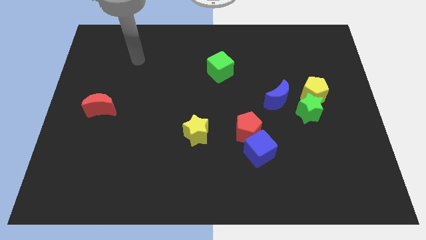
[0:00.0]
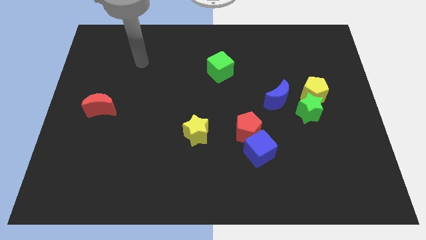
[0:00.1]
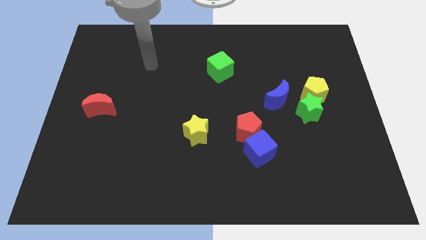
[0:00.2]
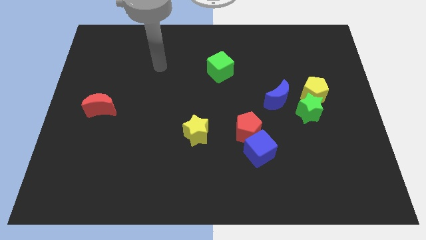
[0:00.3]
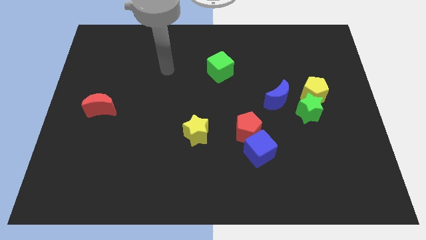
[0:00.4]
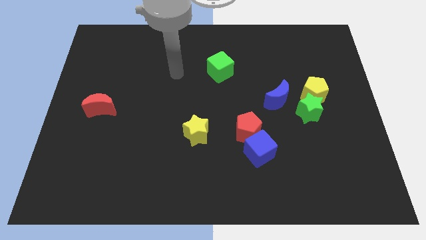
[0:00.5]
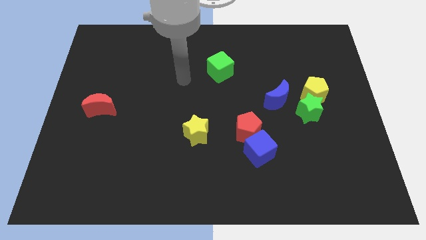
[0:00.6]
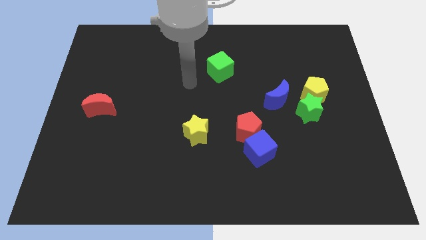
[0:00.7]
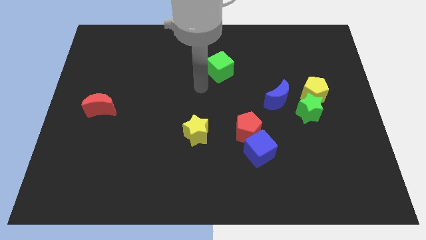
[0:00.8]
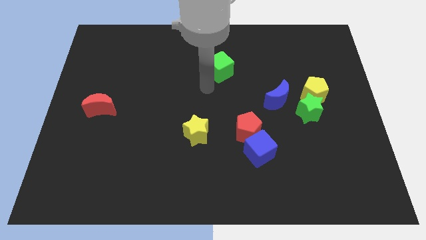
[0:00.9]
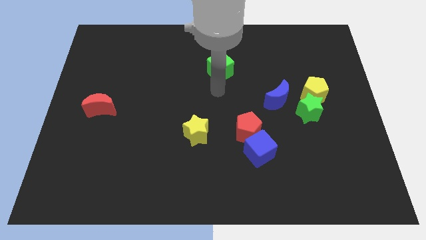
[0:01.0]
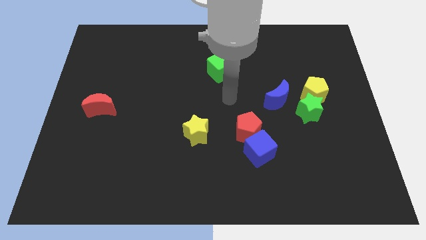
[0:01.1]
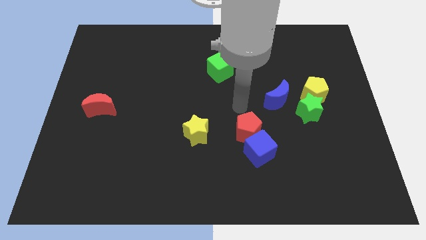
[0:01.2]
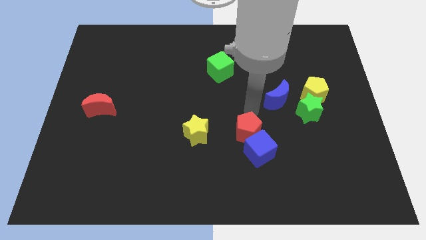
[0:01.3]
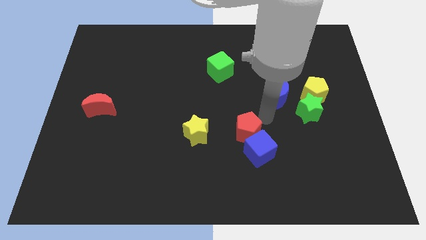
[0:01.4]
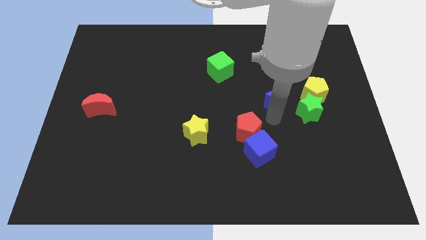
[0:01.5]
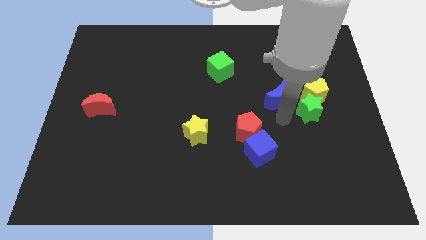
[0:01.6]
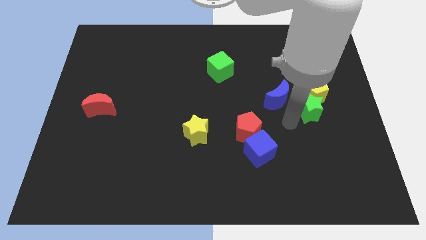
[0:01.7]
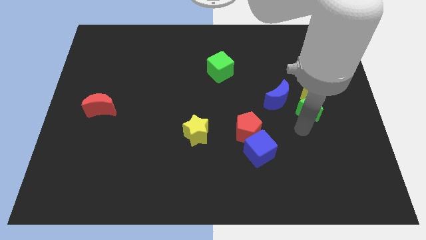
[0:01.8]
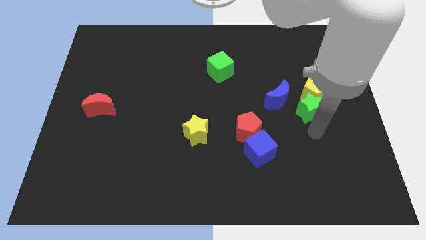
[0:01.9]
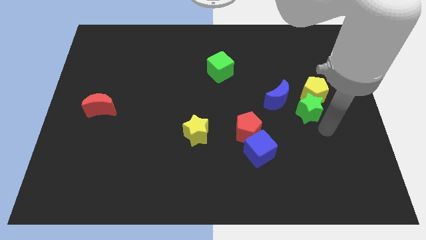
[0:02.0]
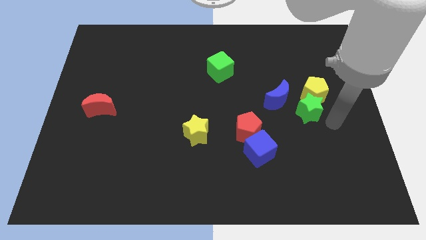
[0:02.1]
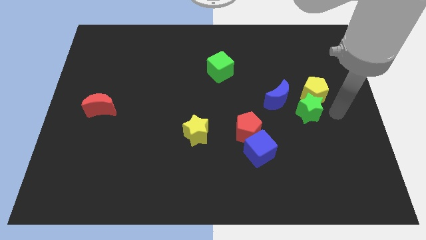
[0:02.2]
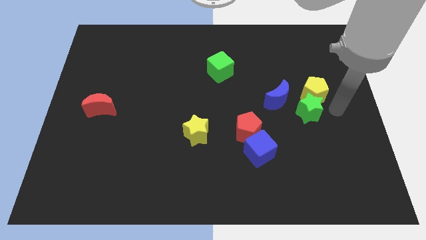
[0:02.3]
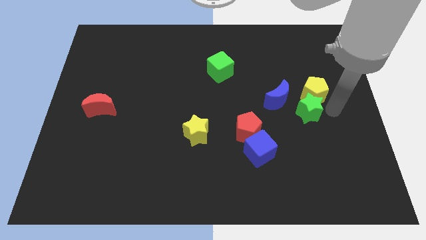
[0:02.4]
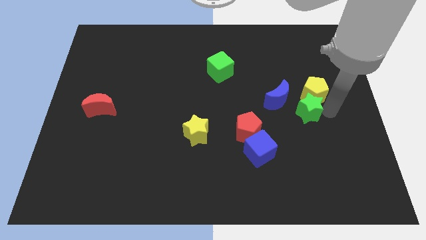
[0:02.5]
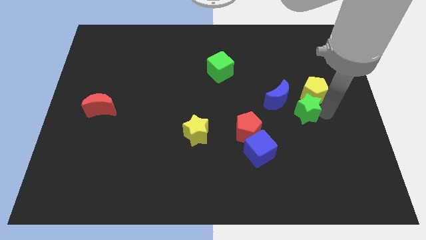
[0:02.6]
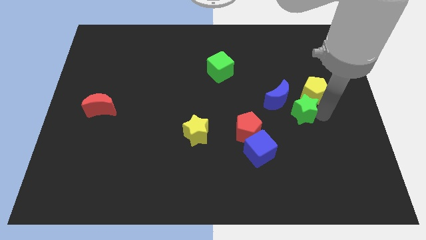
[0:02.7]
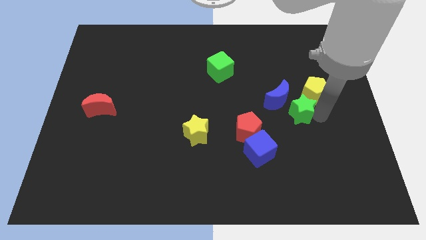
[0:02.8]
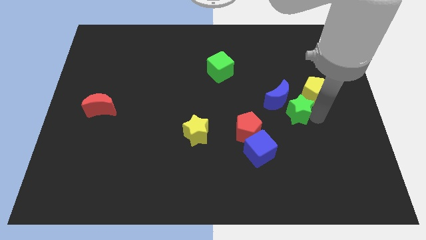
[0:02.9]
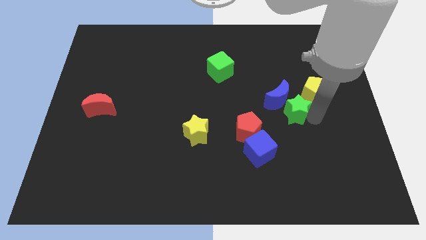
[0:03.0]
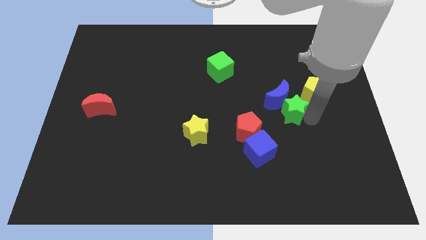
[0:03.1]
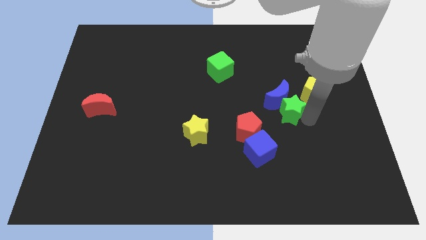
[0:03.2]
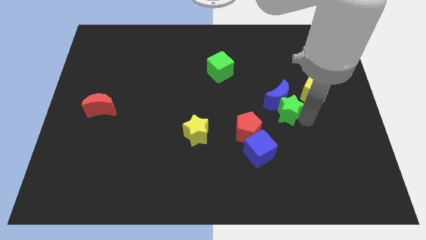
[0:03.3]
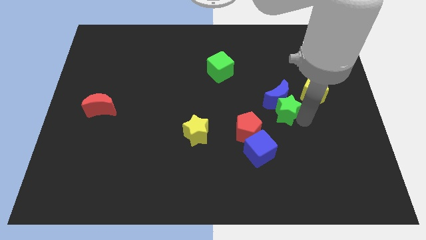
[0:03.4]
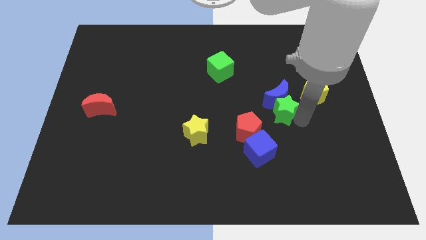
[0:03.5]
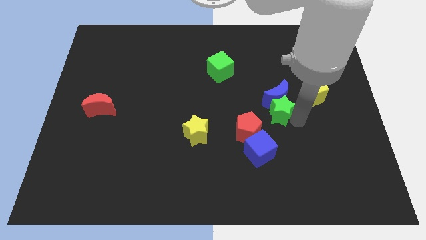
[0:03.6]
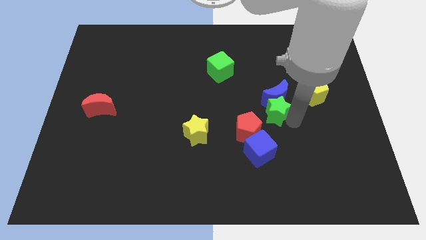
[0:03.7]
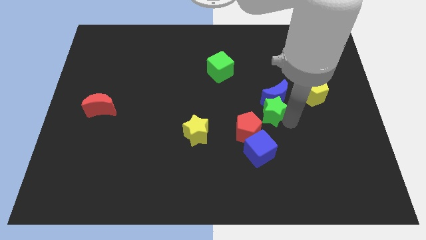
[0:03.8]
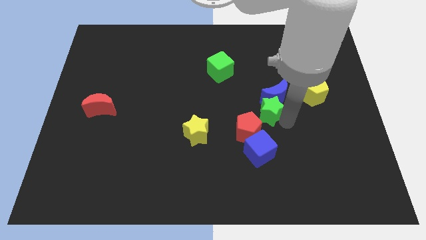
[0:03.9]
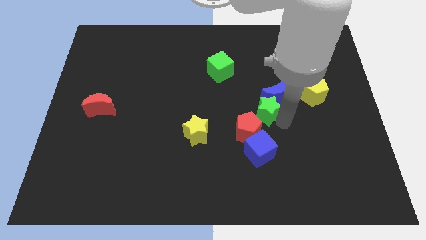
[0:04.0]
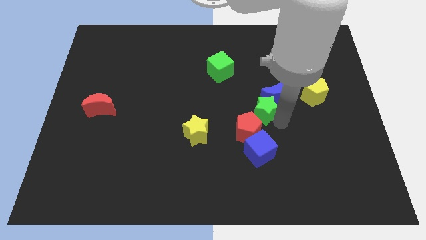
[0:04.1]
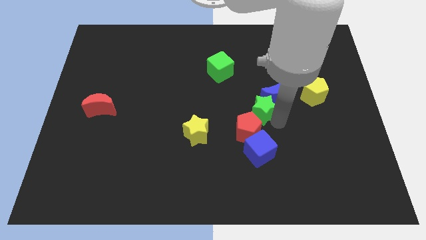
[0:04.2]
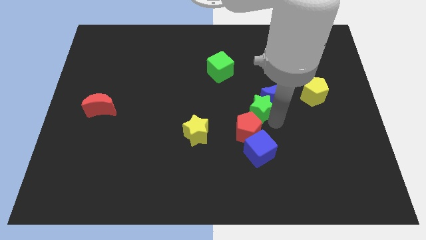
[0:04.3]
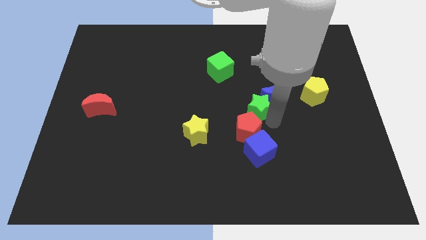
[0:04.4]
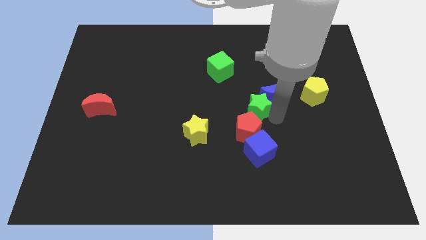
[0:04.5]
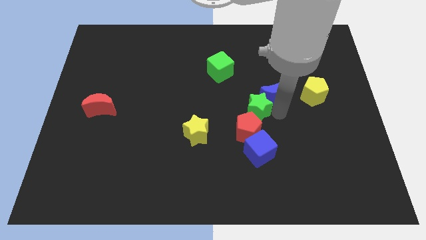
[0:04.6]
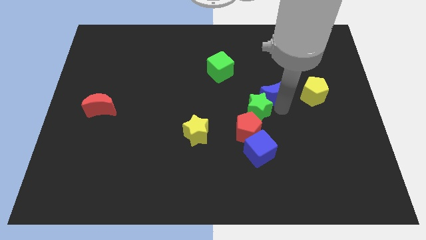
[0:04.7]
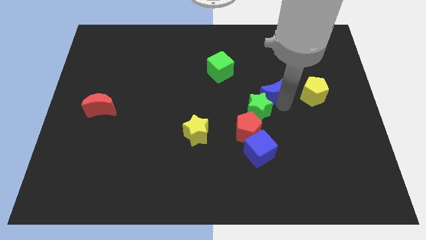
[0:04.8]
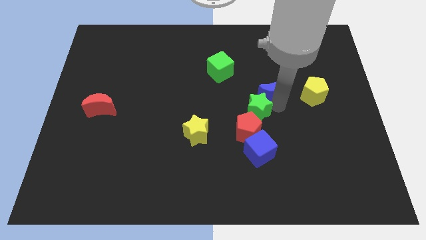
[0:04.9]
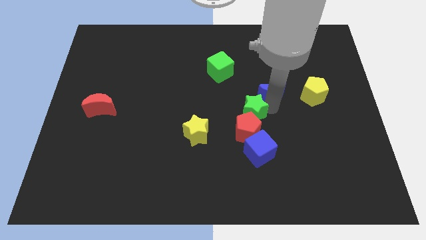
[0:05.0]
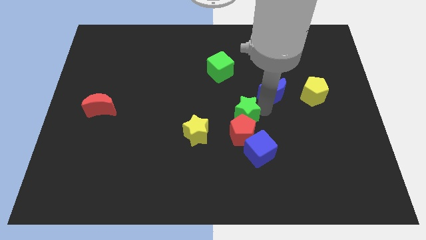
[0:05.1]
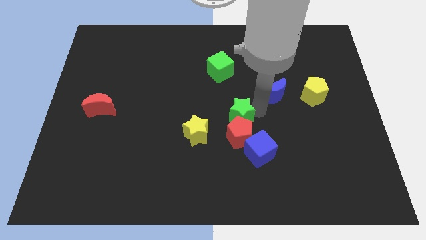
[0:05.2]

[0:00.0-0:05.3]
slide the green star to the top left of the blue cube

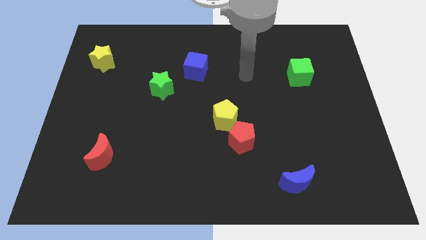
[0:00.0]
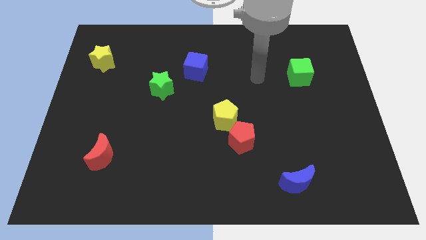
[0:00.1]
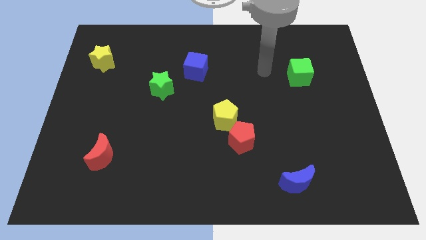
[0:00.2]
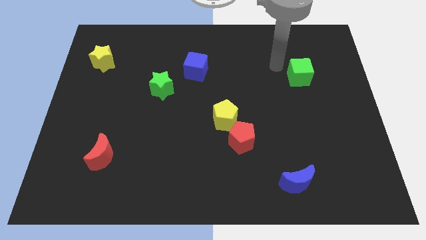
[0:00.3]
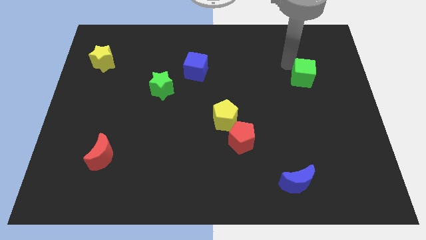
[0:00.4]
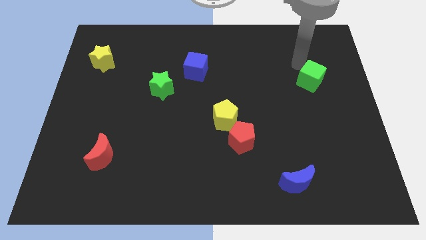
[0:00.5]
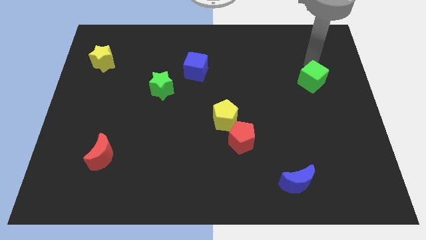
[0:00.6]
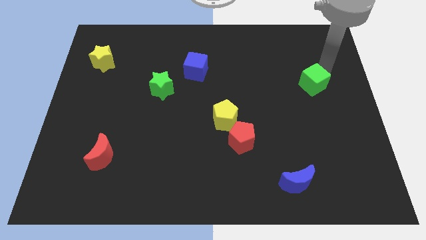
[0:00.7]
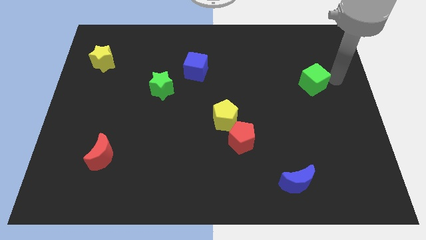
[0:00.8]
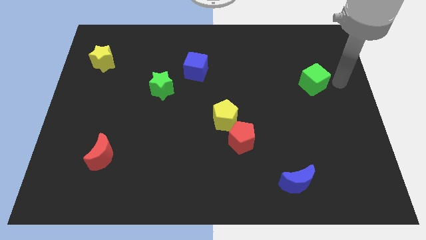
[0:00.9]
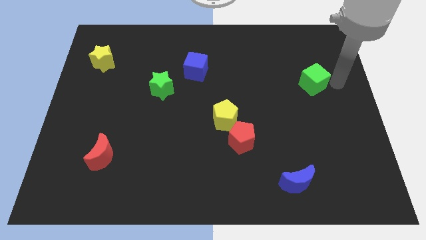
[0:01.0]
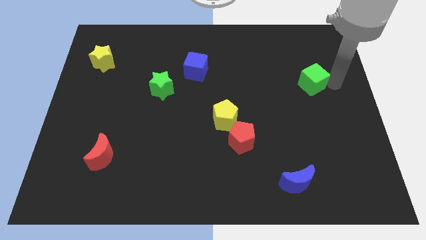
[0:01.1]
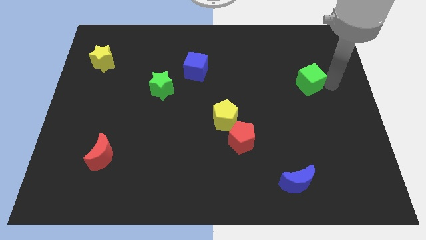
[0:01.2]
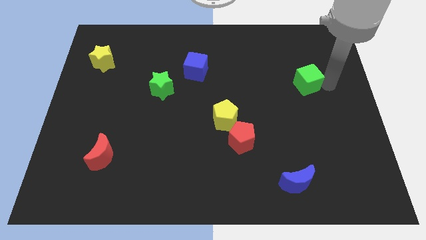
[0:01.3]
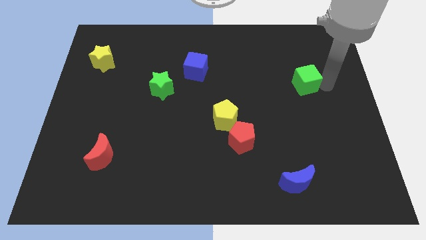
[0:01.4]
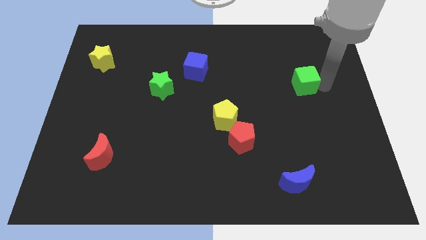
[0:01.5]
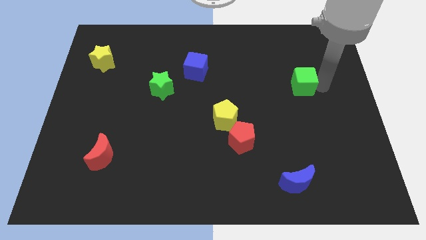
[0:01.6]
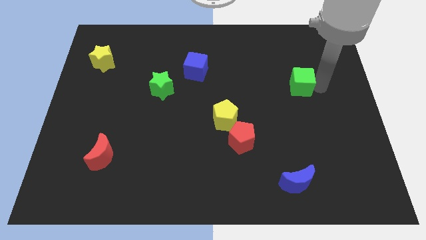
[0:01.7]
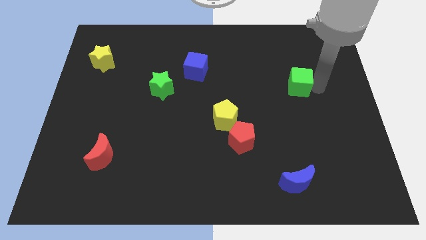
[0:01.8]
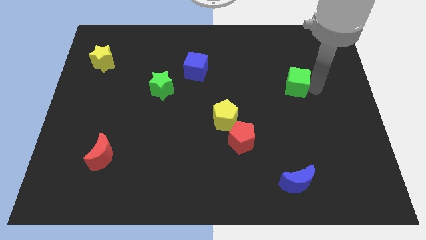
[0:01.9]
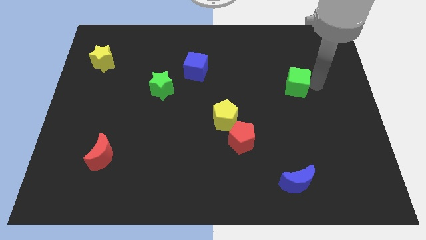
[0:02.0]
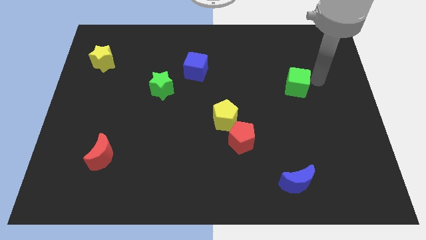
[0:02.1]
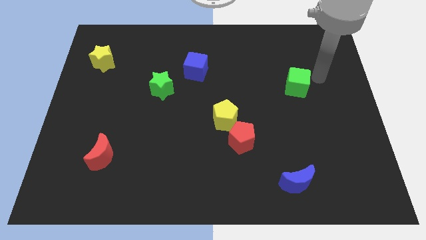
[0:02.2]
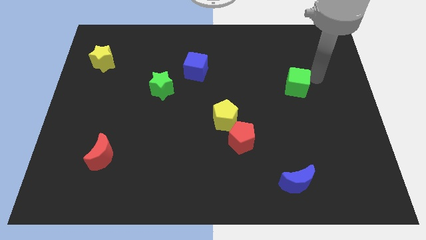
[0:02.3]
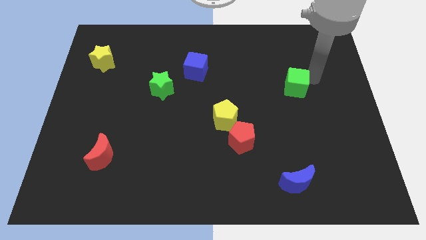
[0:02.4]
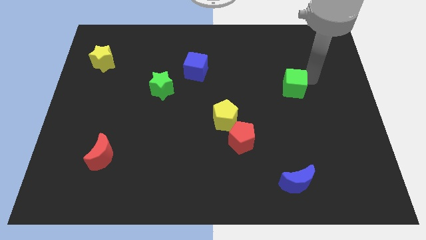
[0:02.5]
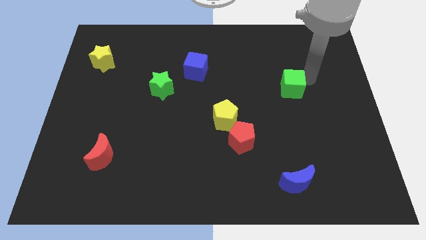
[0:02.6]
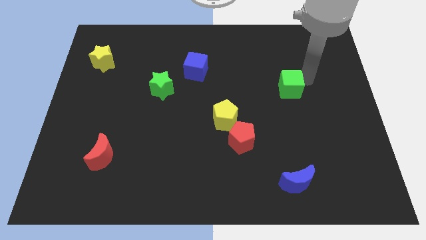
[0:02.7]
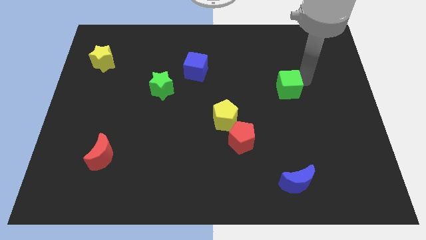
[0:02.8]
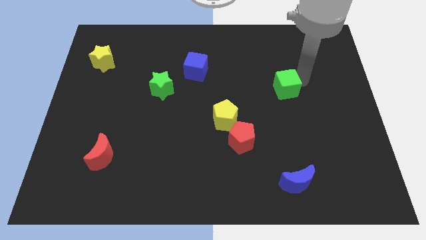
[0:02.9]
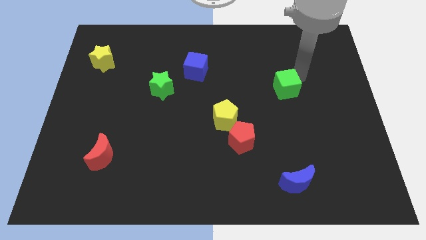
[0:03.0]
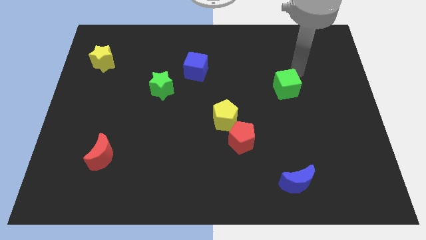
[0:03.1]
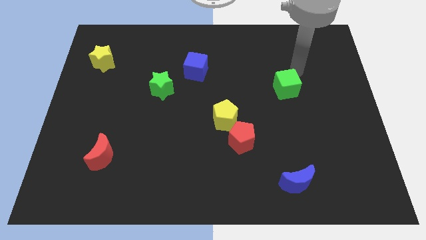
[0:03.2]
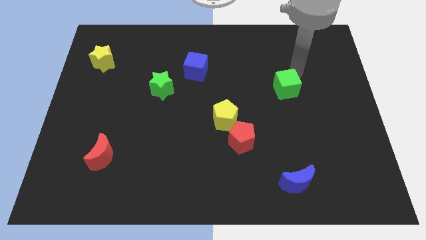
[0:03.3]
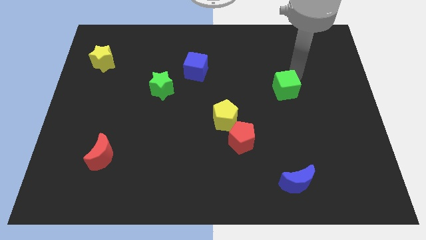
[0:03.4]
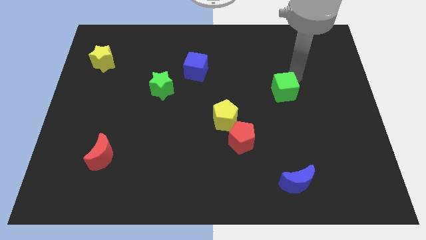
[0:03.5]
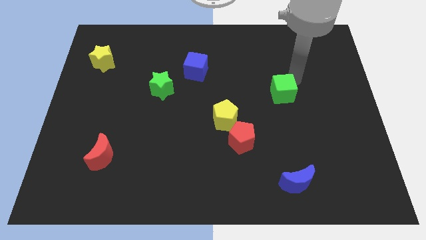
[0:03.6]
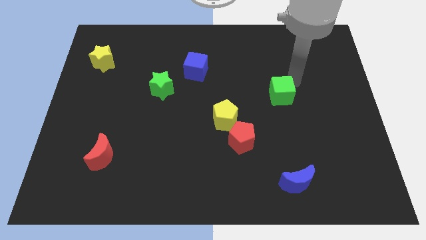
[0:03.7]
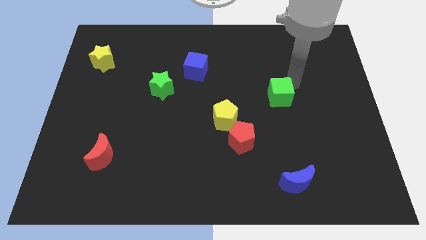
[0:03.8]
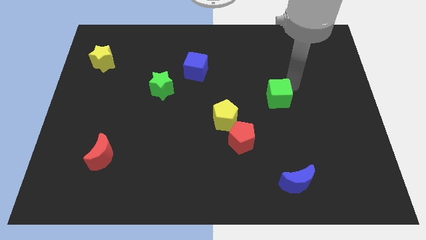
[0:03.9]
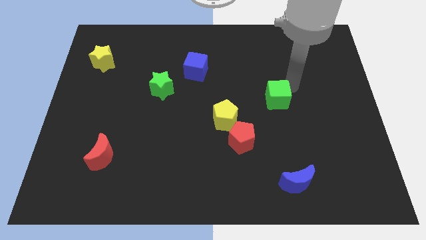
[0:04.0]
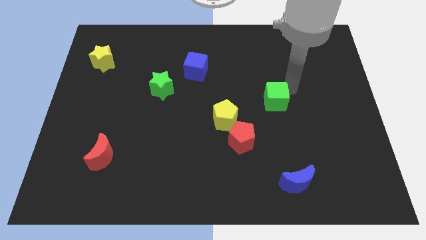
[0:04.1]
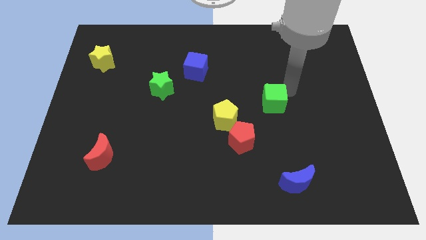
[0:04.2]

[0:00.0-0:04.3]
slide the green cube right of the yellow pentagon
